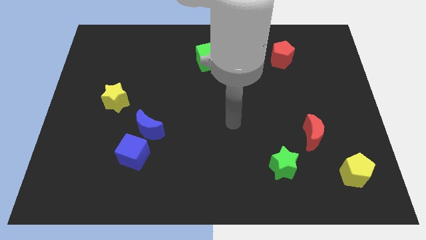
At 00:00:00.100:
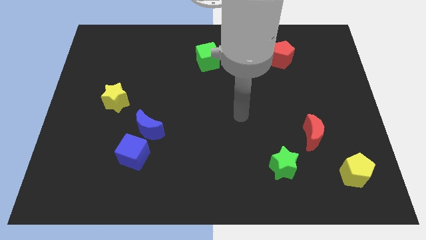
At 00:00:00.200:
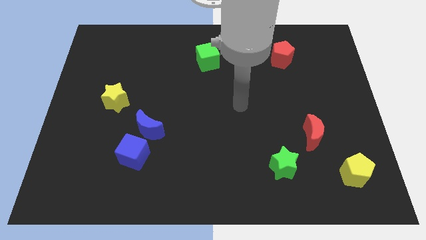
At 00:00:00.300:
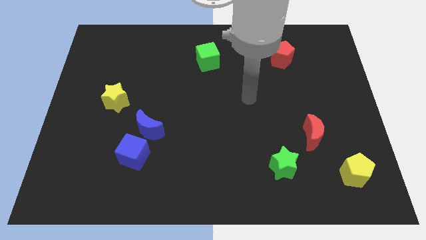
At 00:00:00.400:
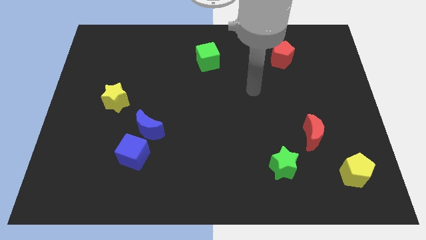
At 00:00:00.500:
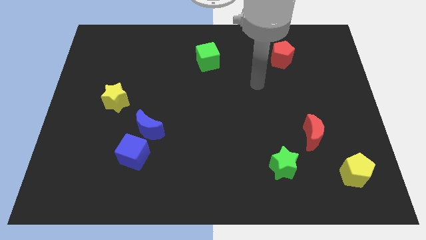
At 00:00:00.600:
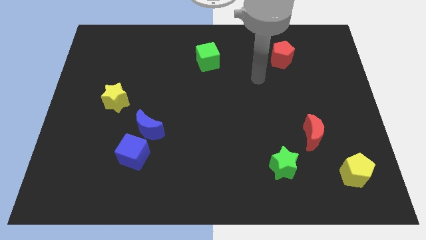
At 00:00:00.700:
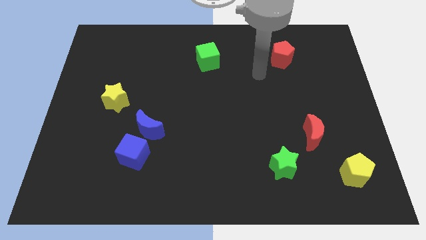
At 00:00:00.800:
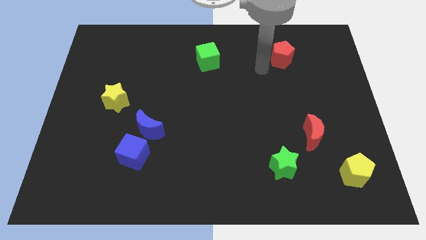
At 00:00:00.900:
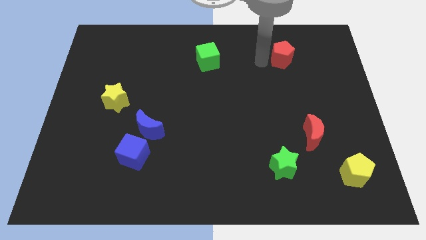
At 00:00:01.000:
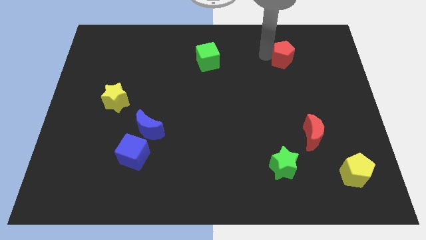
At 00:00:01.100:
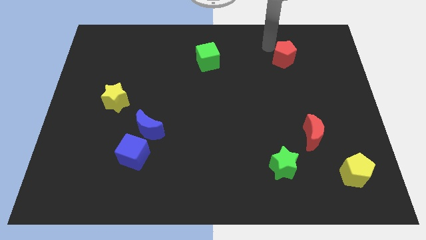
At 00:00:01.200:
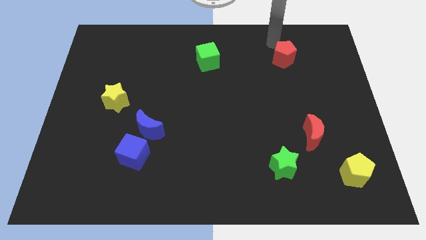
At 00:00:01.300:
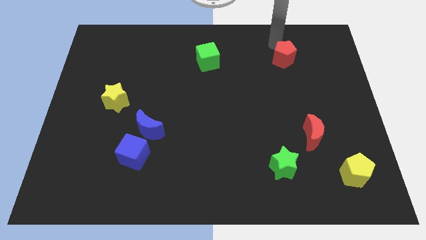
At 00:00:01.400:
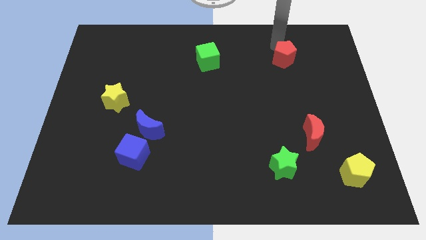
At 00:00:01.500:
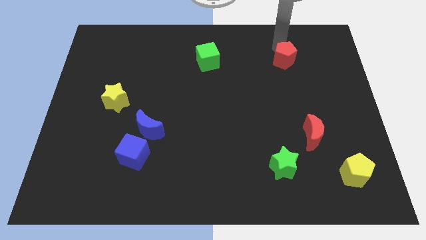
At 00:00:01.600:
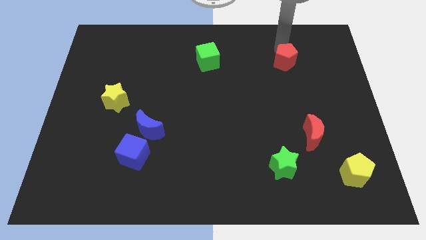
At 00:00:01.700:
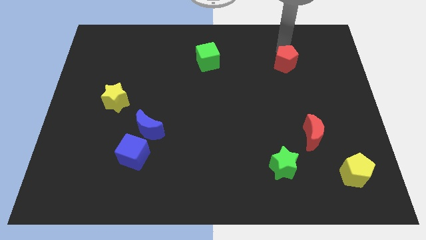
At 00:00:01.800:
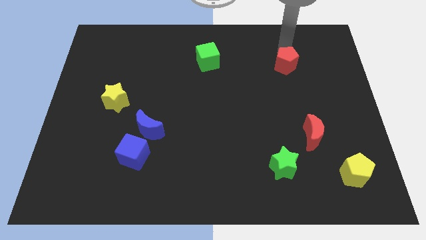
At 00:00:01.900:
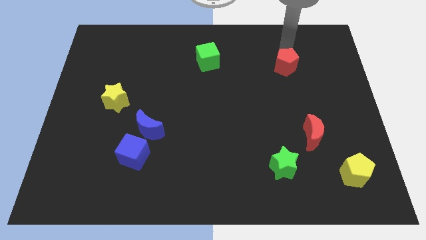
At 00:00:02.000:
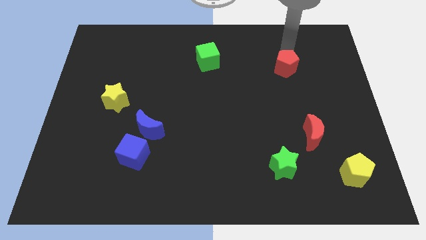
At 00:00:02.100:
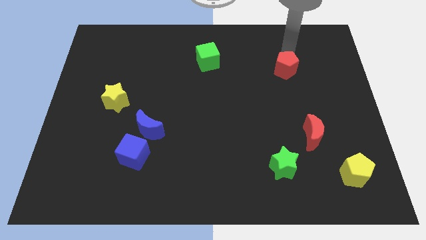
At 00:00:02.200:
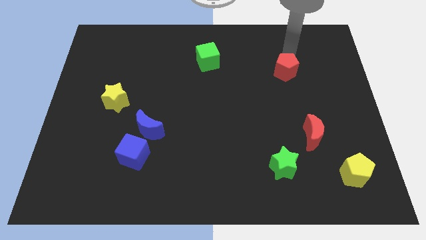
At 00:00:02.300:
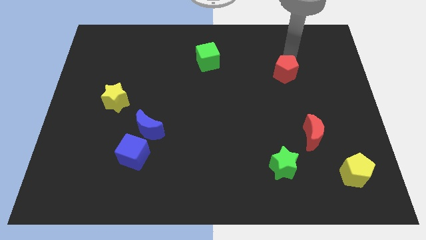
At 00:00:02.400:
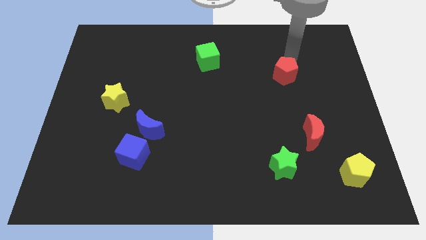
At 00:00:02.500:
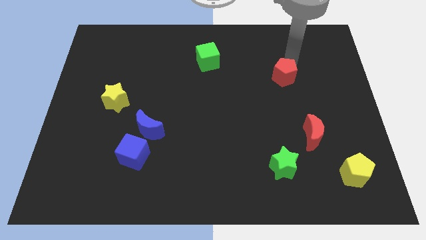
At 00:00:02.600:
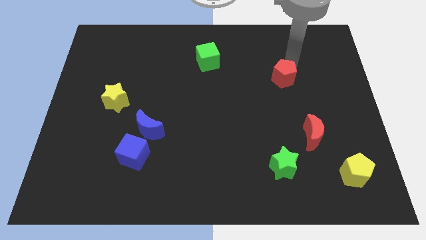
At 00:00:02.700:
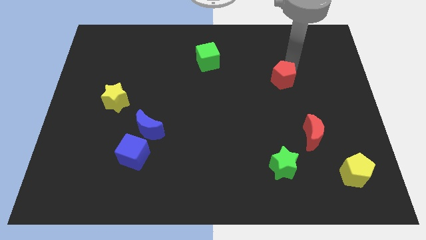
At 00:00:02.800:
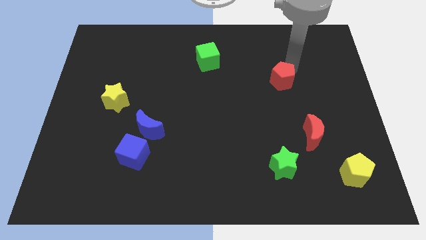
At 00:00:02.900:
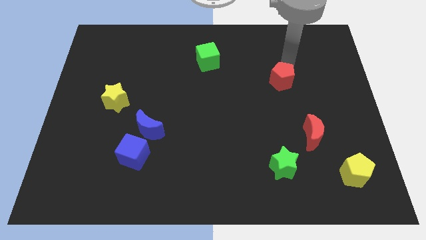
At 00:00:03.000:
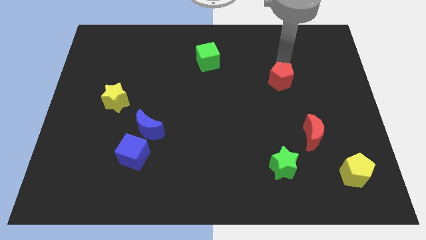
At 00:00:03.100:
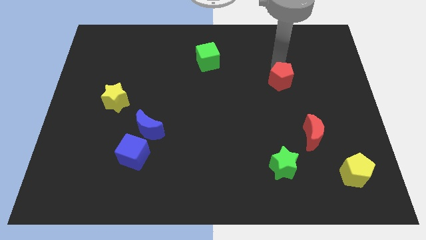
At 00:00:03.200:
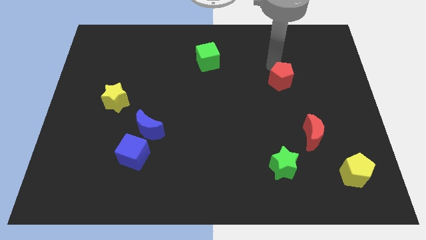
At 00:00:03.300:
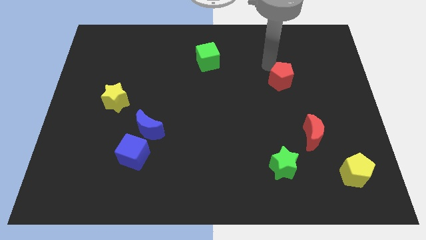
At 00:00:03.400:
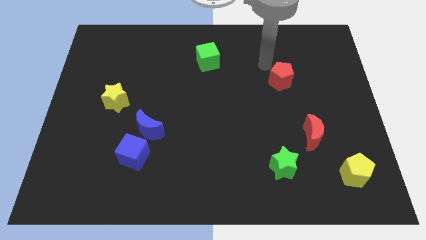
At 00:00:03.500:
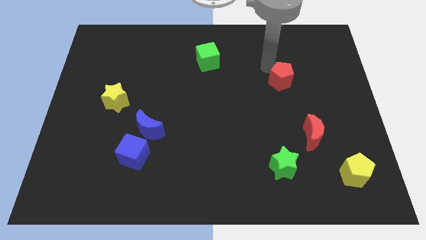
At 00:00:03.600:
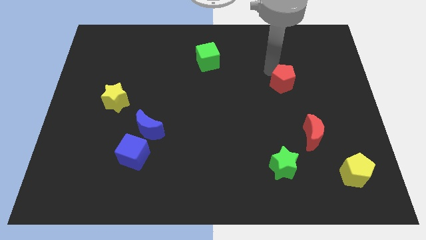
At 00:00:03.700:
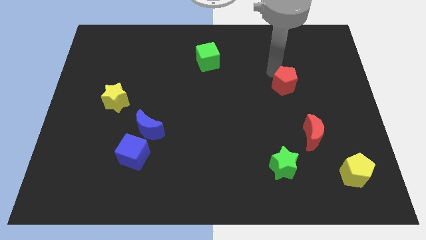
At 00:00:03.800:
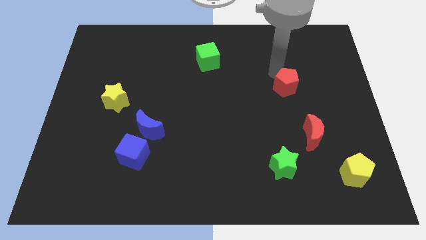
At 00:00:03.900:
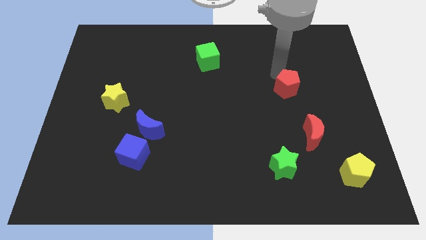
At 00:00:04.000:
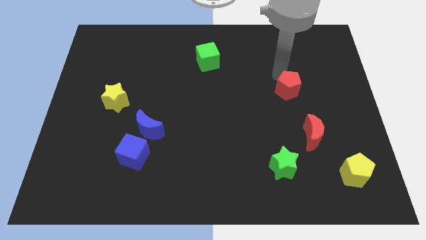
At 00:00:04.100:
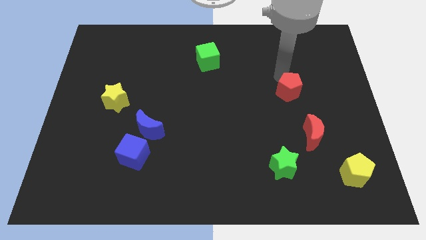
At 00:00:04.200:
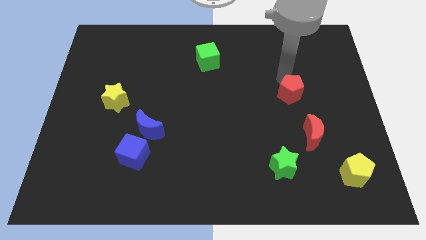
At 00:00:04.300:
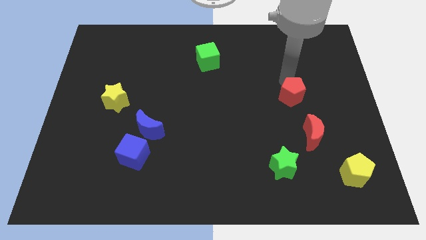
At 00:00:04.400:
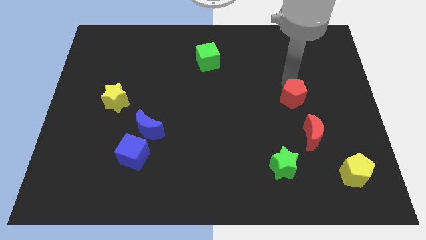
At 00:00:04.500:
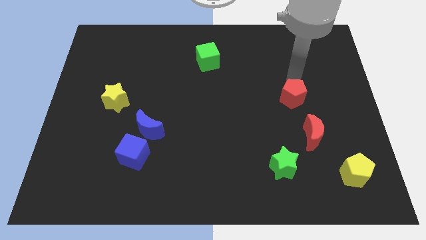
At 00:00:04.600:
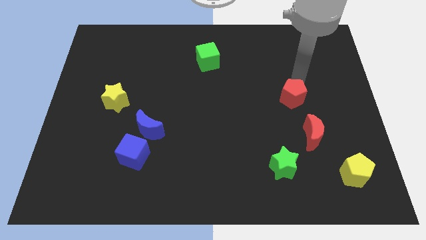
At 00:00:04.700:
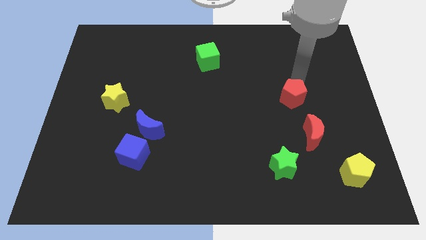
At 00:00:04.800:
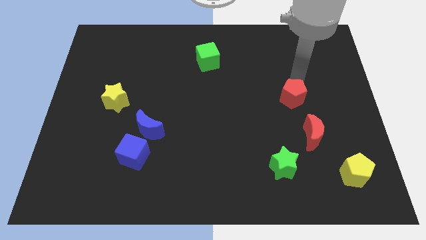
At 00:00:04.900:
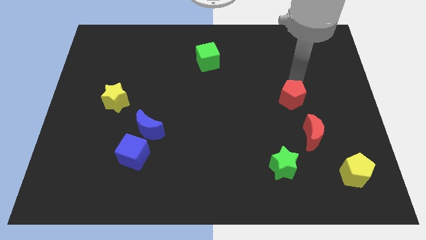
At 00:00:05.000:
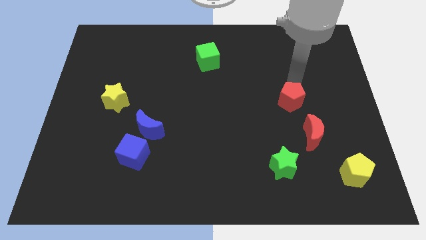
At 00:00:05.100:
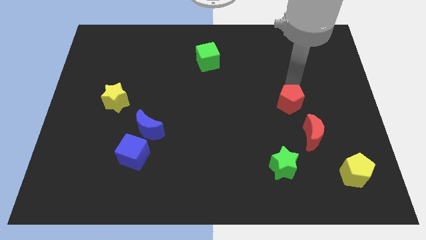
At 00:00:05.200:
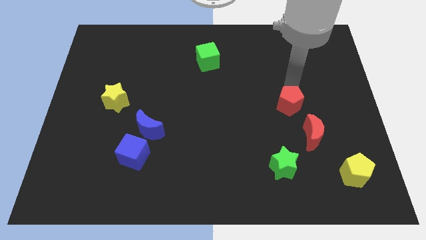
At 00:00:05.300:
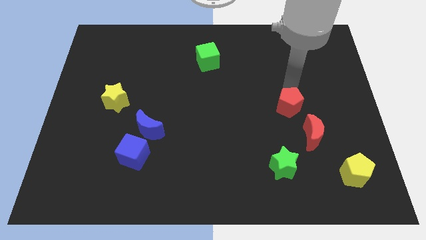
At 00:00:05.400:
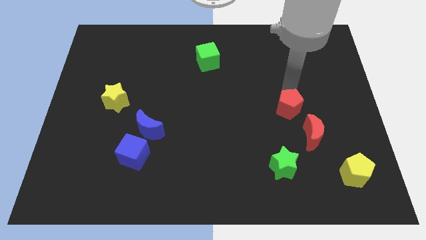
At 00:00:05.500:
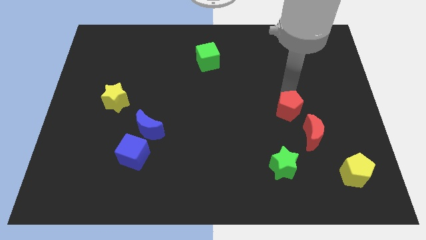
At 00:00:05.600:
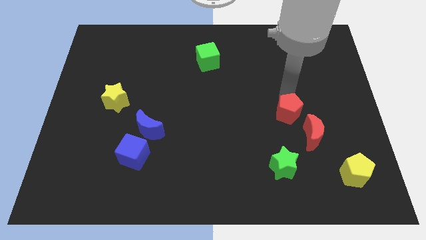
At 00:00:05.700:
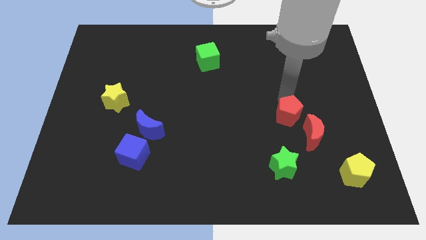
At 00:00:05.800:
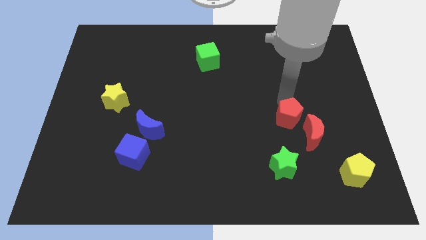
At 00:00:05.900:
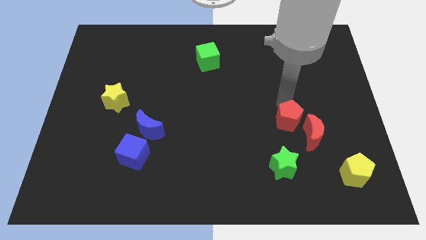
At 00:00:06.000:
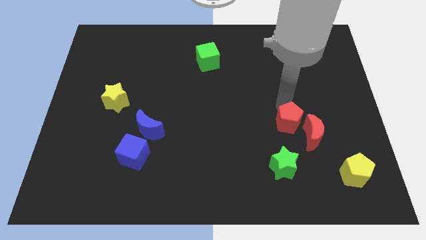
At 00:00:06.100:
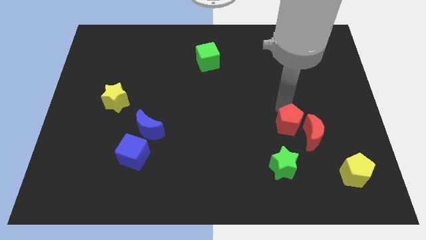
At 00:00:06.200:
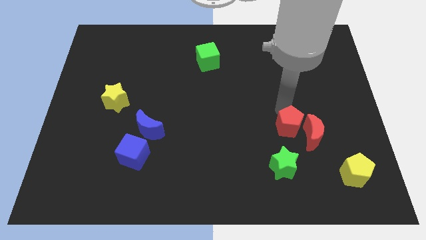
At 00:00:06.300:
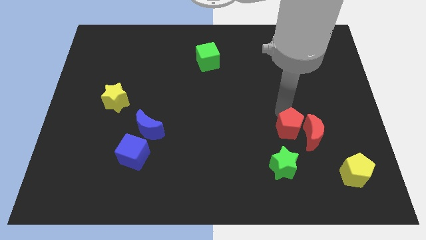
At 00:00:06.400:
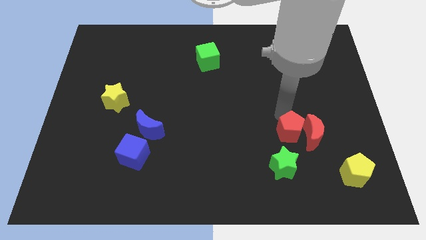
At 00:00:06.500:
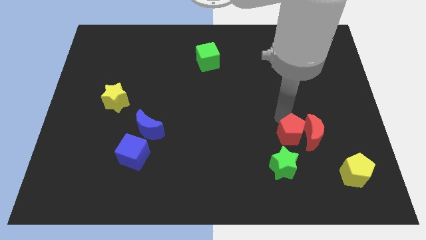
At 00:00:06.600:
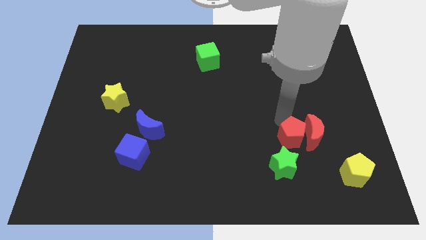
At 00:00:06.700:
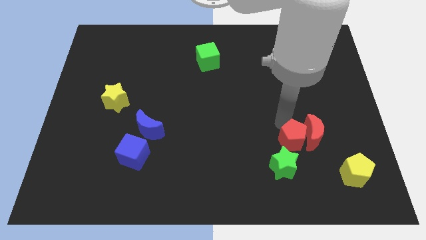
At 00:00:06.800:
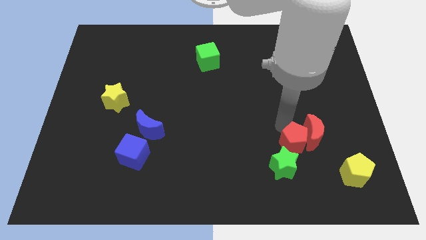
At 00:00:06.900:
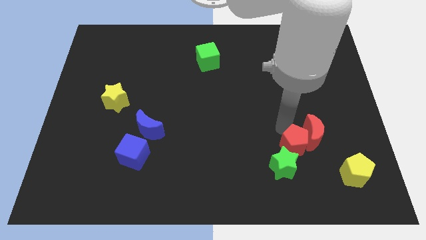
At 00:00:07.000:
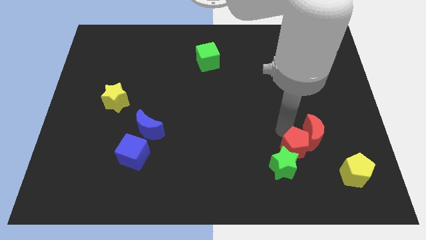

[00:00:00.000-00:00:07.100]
move the red pentagon to the bottom of the red moon

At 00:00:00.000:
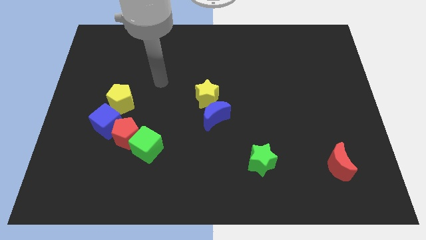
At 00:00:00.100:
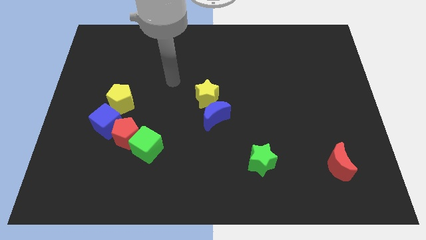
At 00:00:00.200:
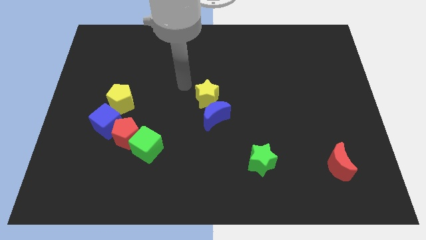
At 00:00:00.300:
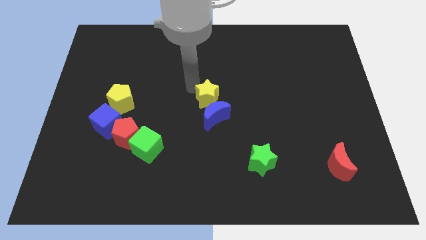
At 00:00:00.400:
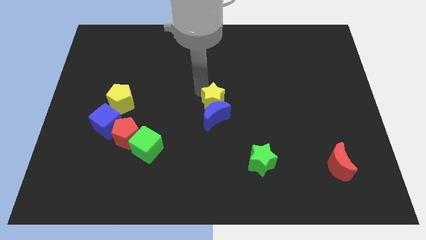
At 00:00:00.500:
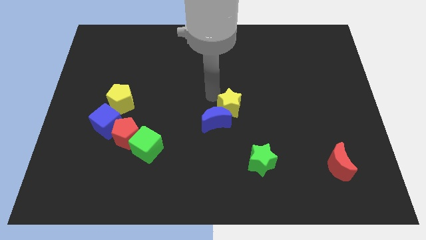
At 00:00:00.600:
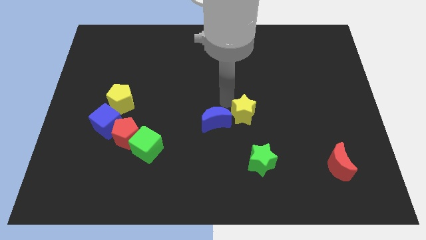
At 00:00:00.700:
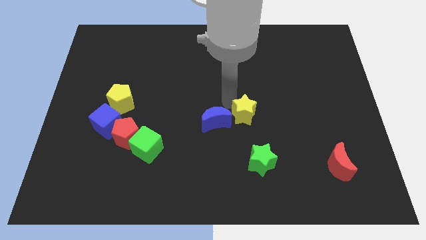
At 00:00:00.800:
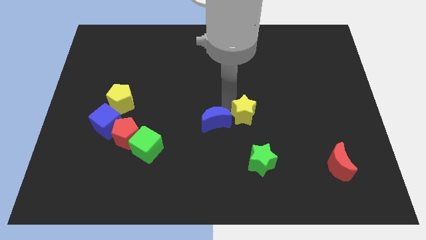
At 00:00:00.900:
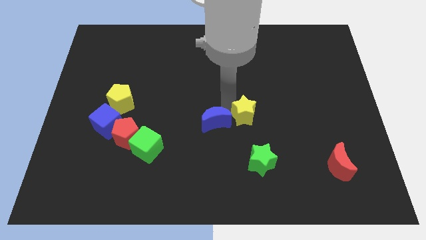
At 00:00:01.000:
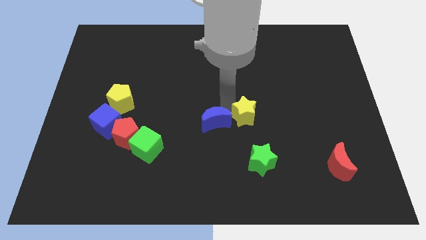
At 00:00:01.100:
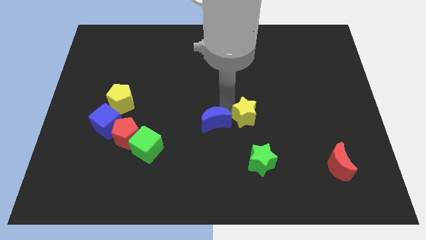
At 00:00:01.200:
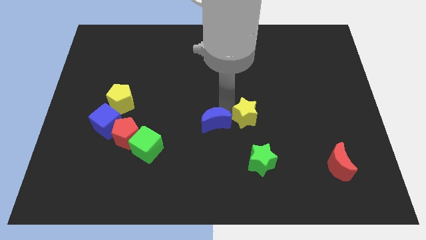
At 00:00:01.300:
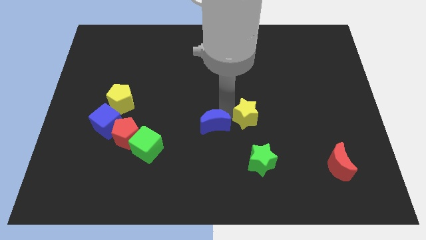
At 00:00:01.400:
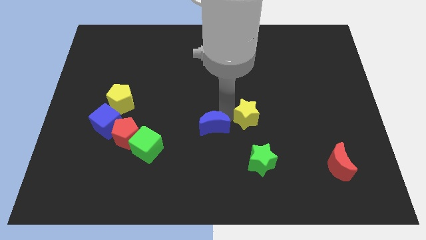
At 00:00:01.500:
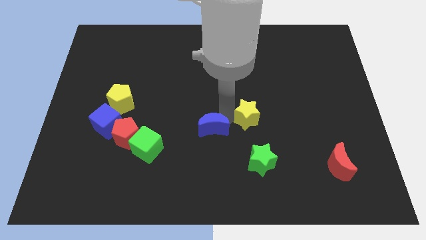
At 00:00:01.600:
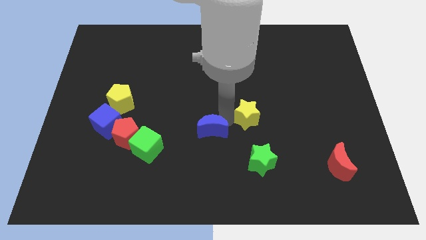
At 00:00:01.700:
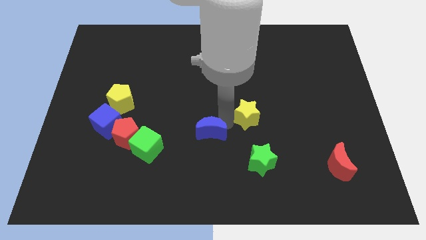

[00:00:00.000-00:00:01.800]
put the blue moon just right of the green cube
